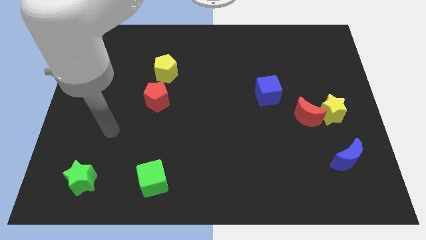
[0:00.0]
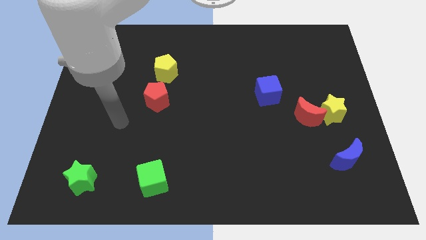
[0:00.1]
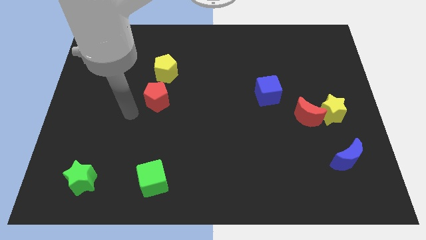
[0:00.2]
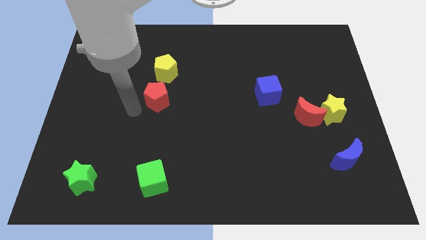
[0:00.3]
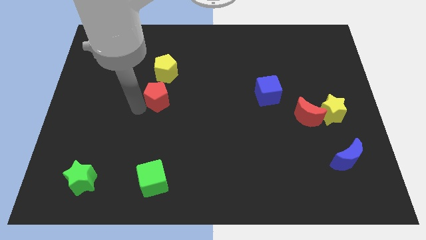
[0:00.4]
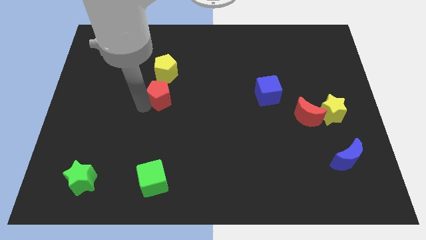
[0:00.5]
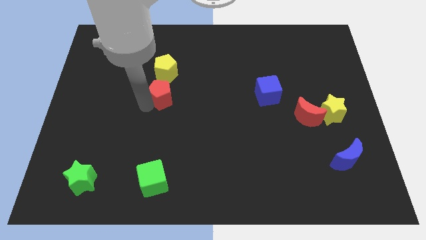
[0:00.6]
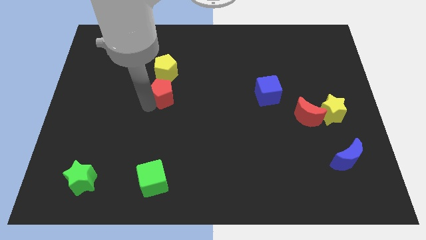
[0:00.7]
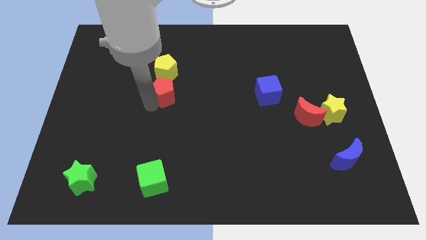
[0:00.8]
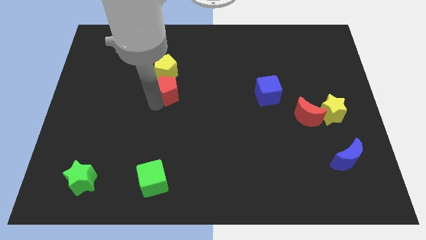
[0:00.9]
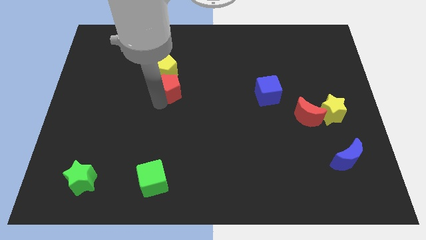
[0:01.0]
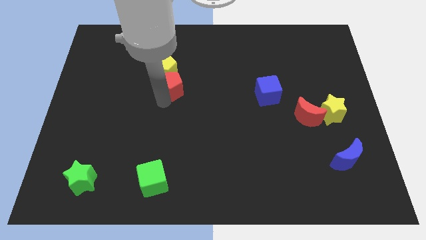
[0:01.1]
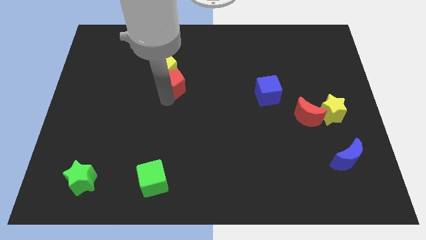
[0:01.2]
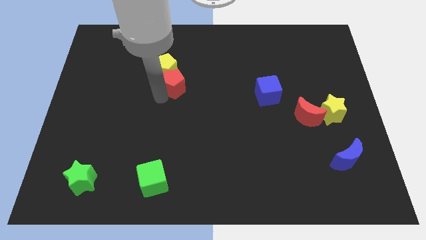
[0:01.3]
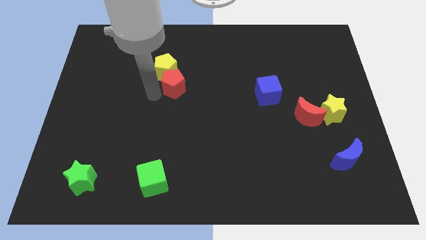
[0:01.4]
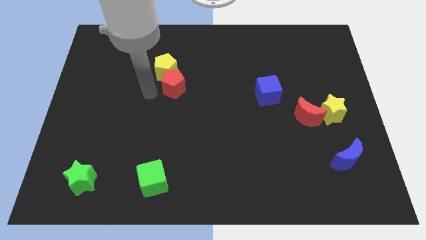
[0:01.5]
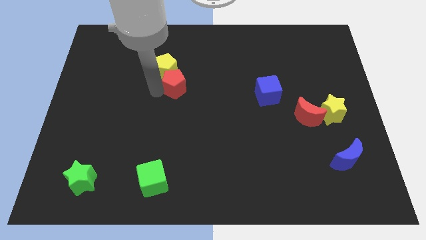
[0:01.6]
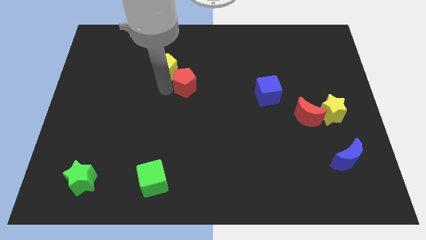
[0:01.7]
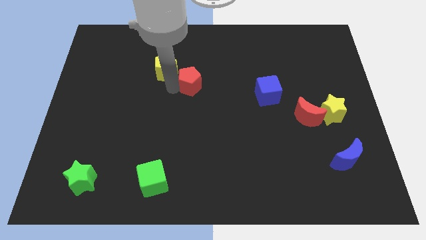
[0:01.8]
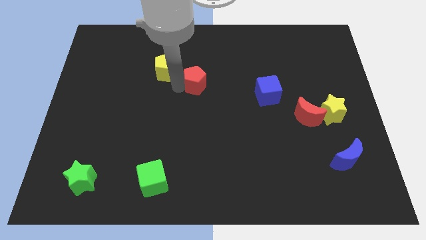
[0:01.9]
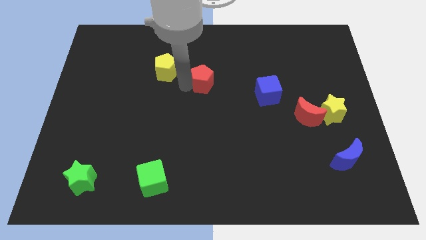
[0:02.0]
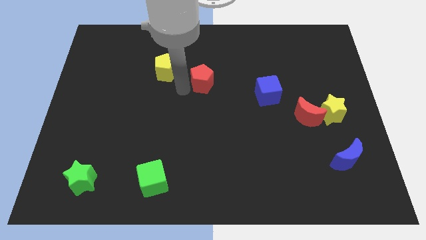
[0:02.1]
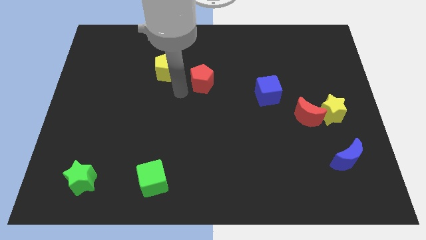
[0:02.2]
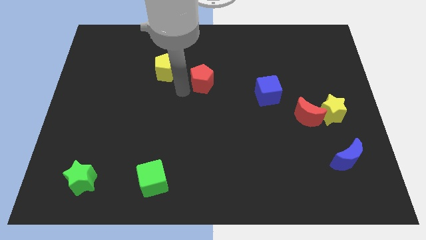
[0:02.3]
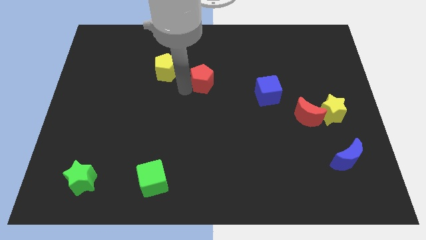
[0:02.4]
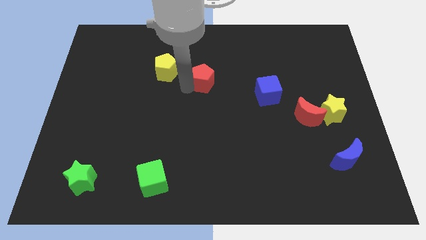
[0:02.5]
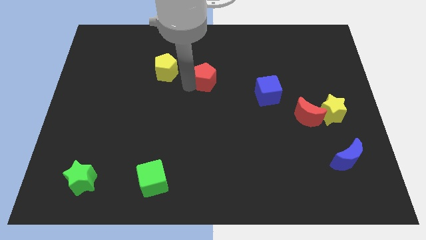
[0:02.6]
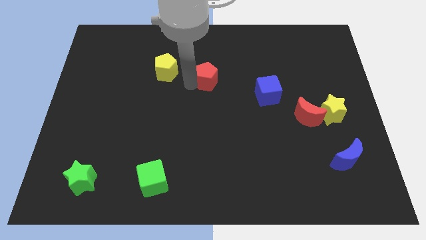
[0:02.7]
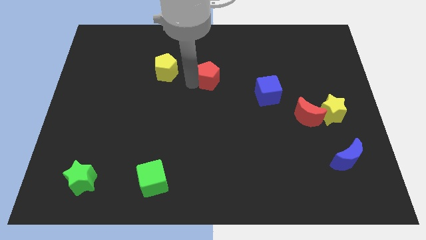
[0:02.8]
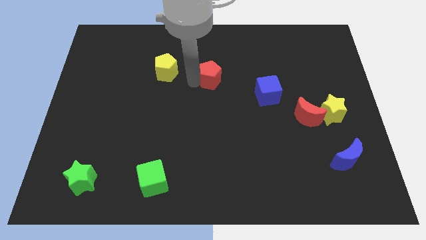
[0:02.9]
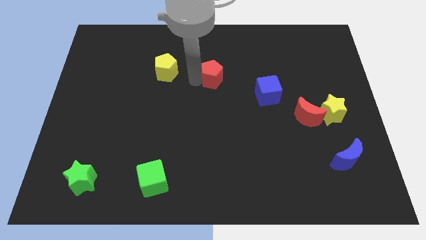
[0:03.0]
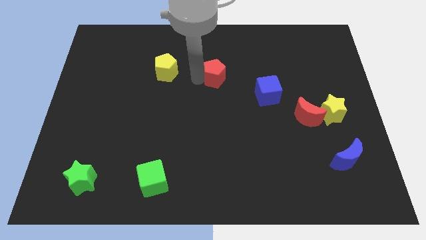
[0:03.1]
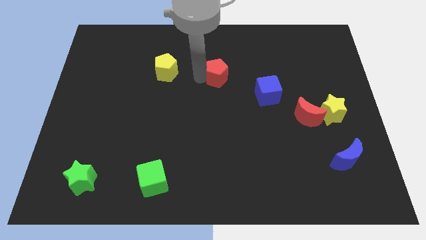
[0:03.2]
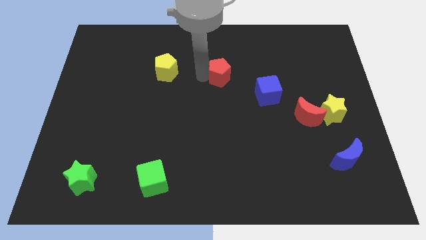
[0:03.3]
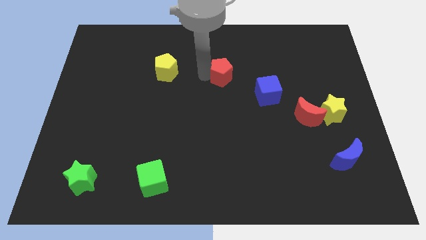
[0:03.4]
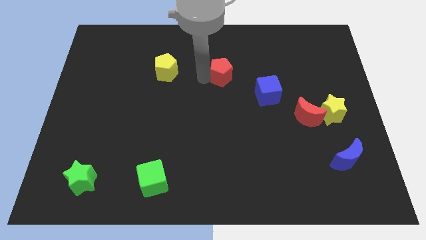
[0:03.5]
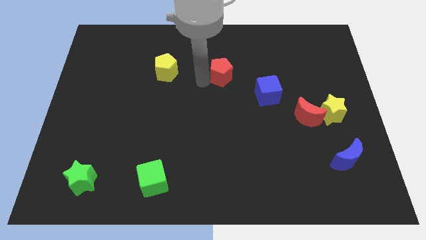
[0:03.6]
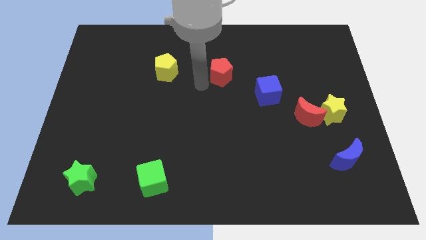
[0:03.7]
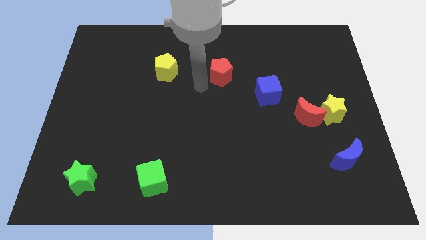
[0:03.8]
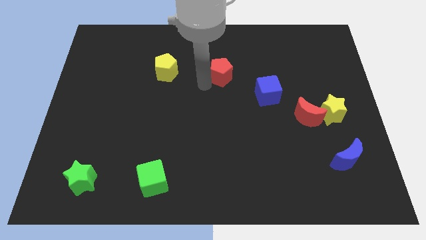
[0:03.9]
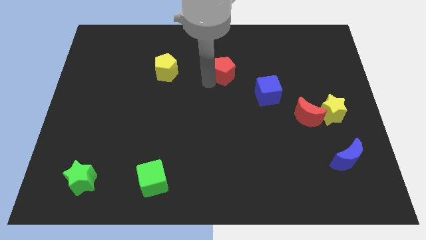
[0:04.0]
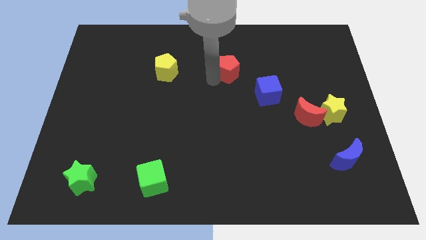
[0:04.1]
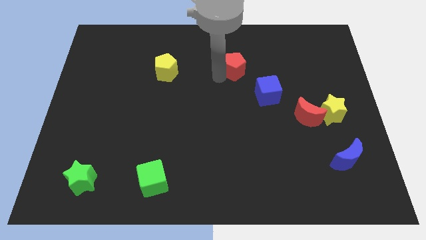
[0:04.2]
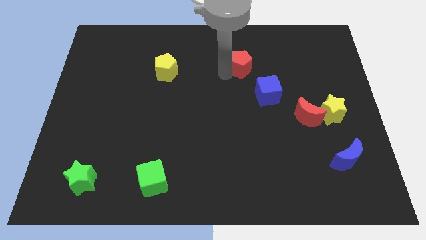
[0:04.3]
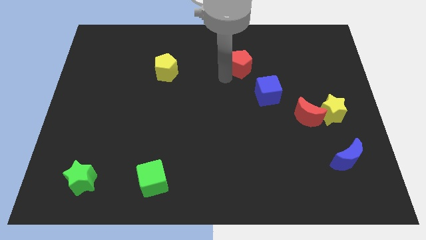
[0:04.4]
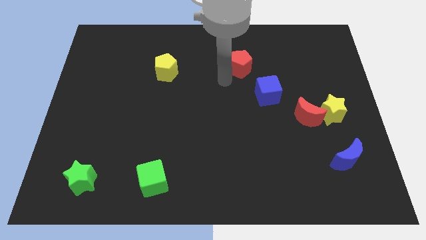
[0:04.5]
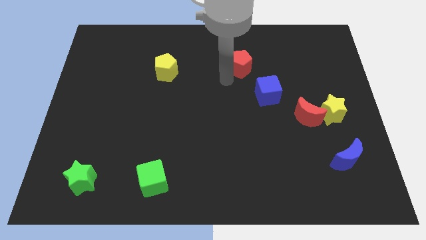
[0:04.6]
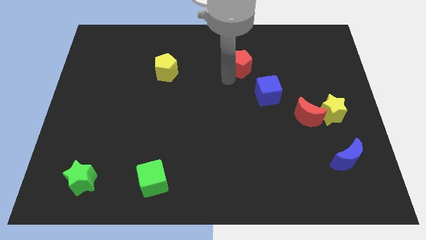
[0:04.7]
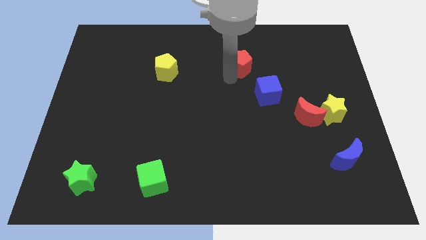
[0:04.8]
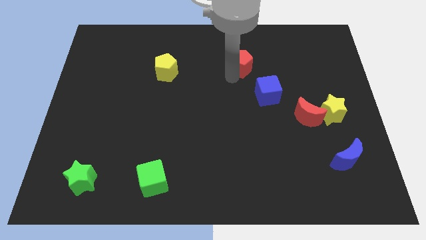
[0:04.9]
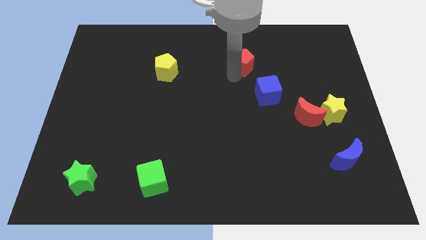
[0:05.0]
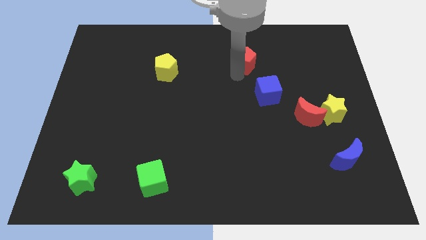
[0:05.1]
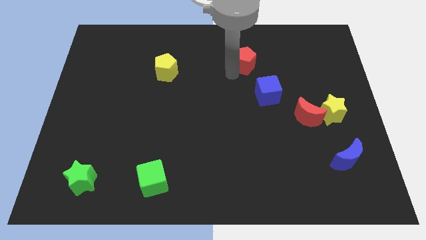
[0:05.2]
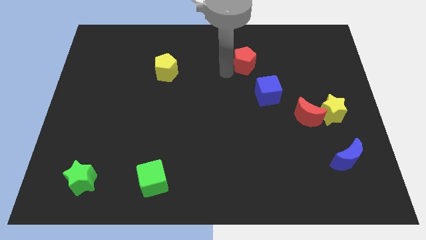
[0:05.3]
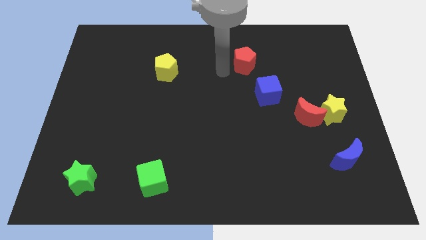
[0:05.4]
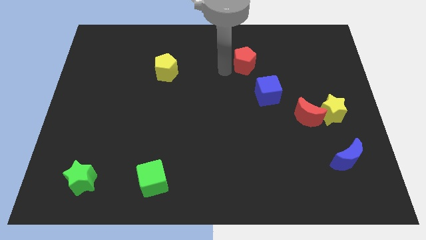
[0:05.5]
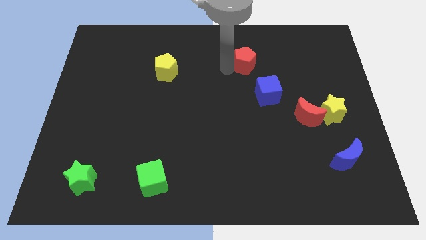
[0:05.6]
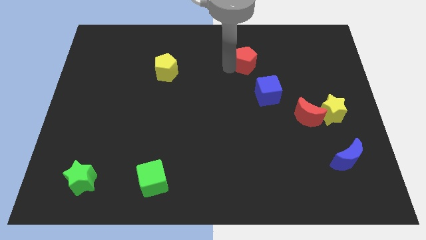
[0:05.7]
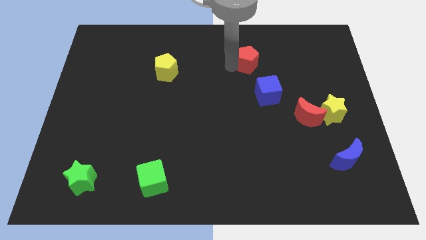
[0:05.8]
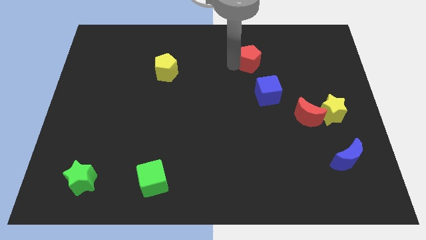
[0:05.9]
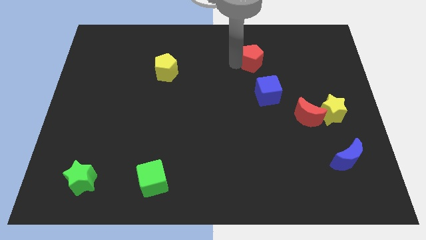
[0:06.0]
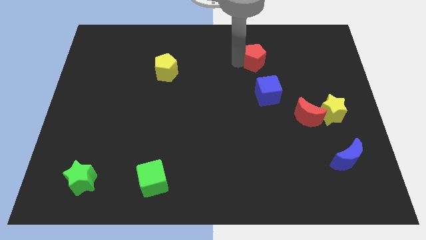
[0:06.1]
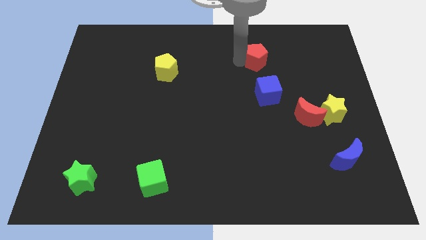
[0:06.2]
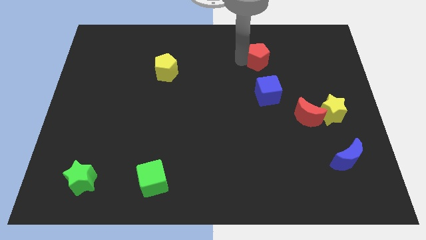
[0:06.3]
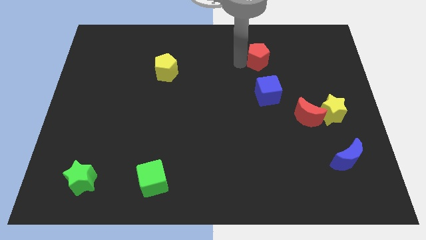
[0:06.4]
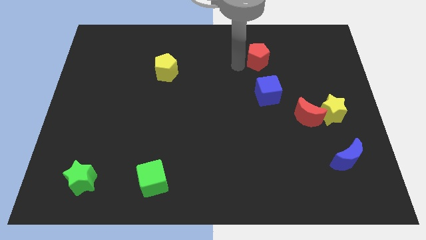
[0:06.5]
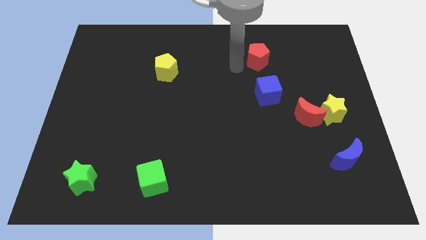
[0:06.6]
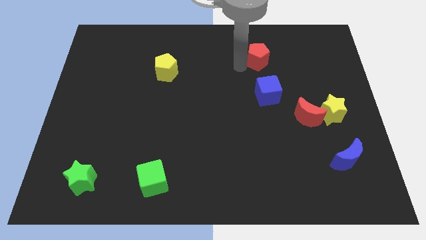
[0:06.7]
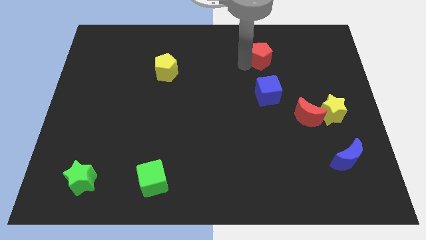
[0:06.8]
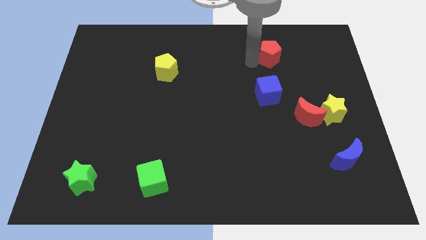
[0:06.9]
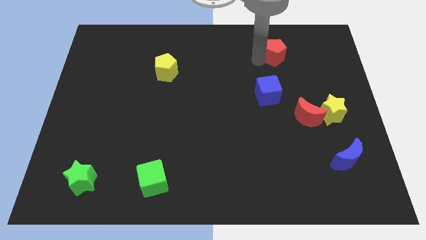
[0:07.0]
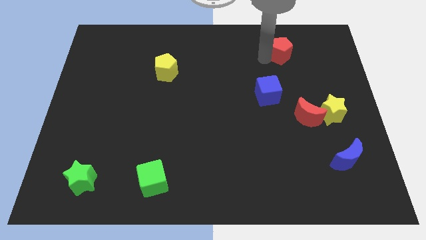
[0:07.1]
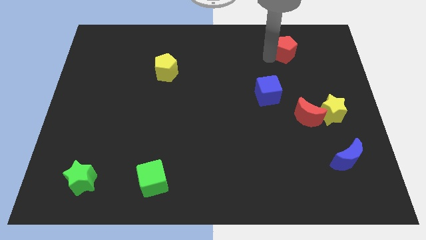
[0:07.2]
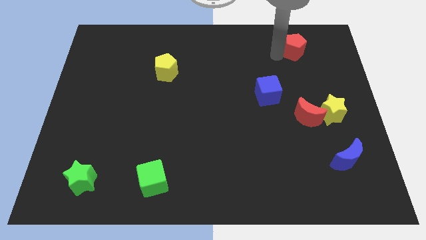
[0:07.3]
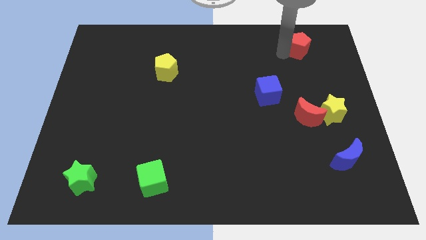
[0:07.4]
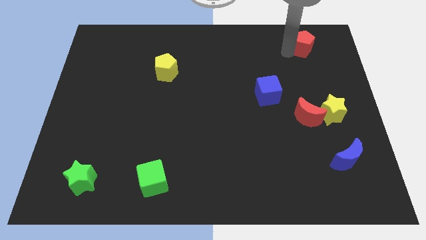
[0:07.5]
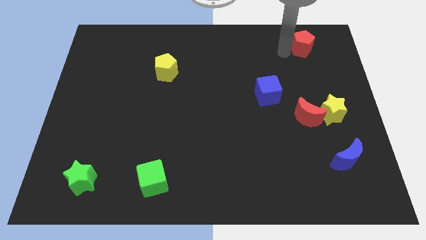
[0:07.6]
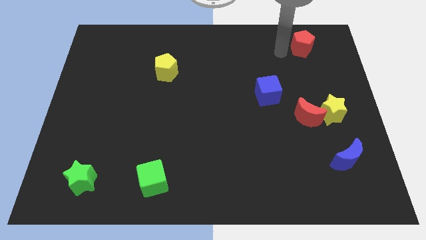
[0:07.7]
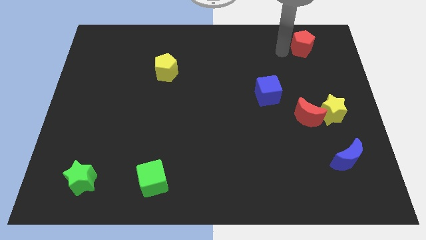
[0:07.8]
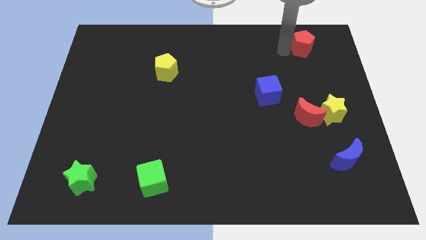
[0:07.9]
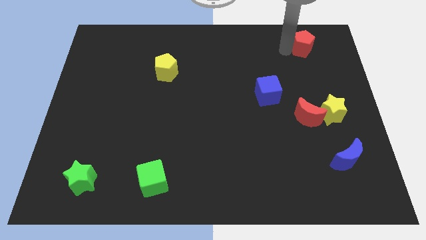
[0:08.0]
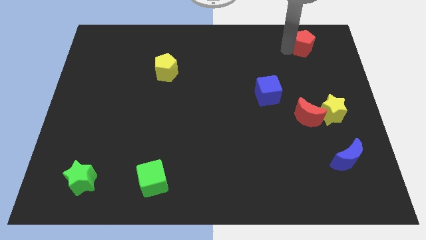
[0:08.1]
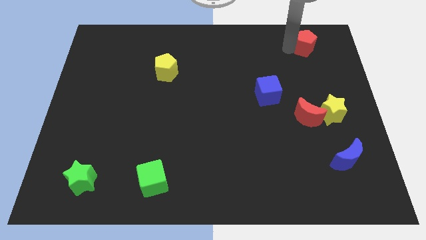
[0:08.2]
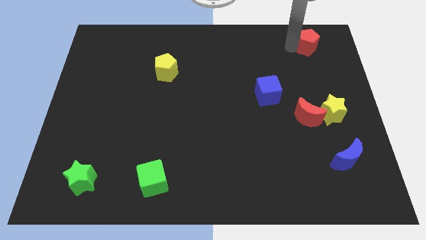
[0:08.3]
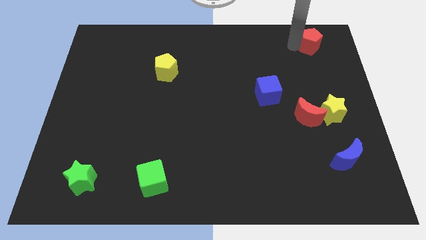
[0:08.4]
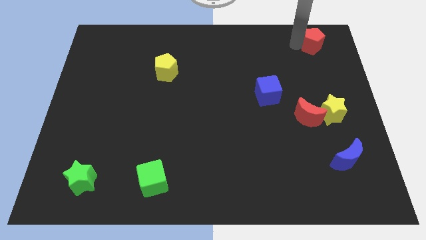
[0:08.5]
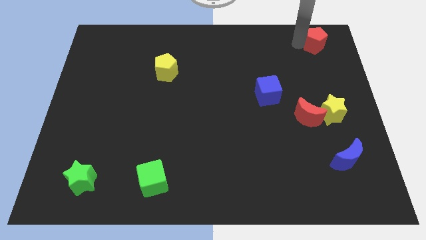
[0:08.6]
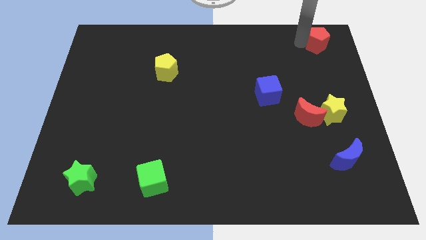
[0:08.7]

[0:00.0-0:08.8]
move the red pentagon to the top right
